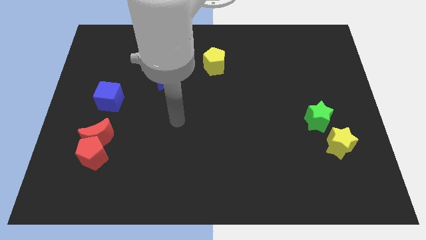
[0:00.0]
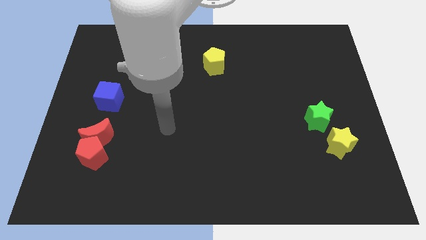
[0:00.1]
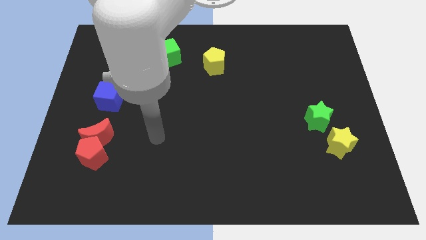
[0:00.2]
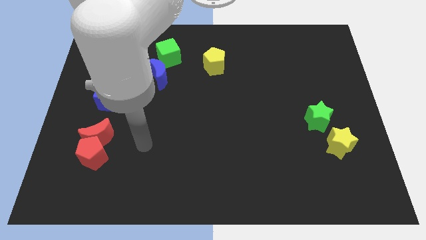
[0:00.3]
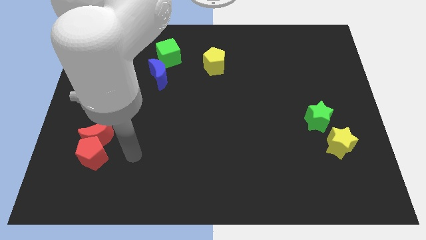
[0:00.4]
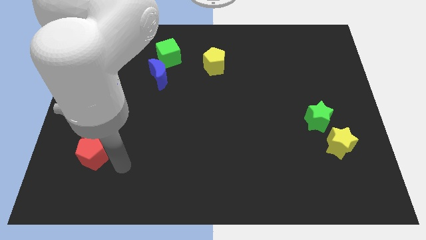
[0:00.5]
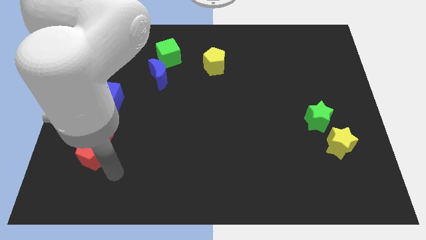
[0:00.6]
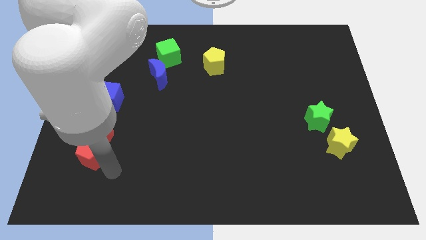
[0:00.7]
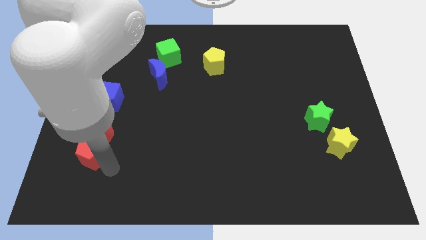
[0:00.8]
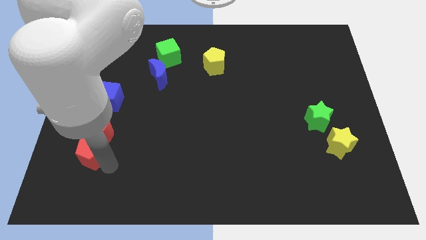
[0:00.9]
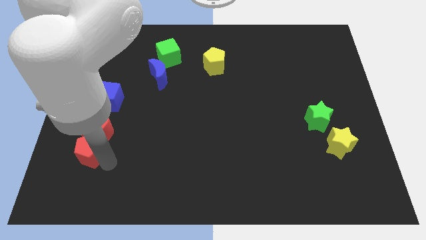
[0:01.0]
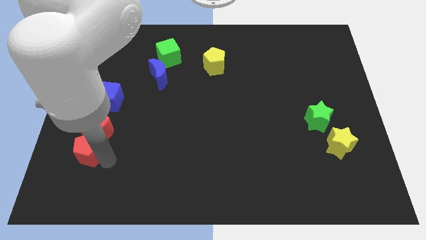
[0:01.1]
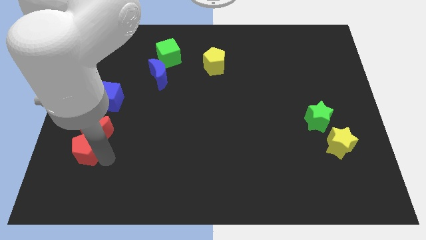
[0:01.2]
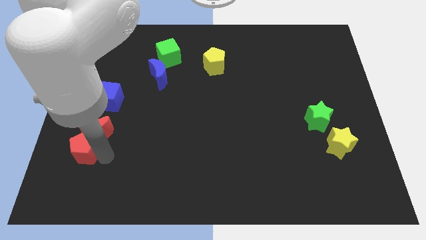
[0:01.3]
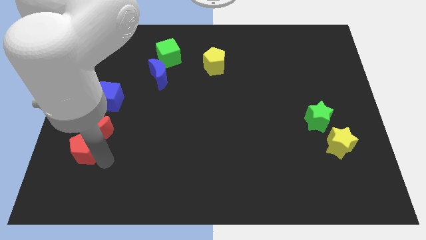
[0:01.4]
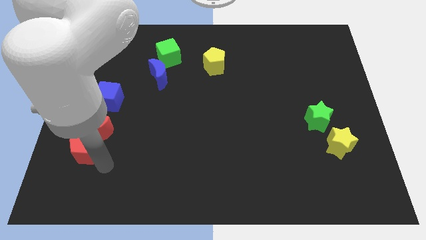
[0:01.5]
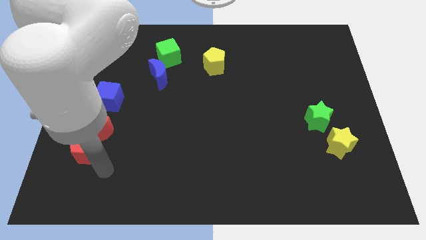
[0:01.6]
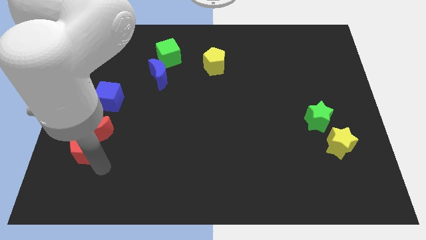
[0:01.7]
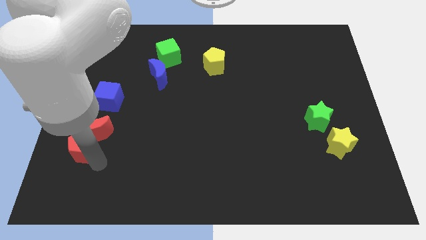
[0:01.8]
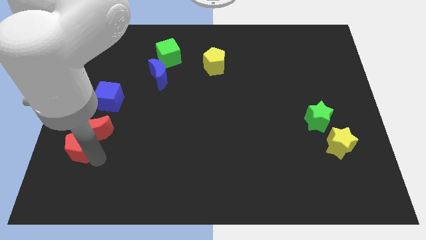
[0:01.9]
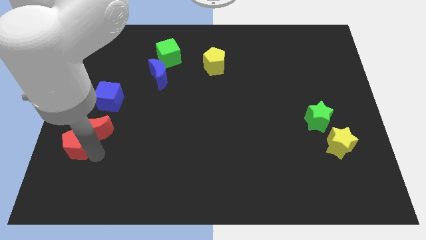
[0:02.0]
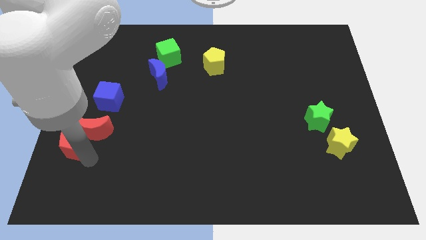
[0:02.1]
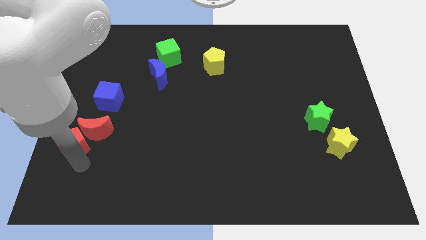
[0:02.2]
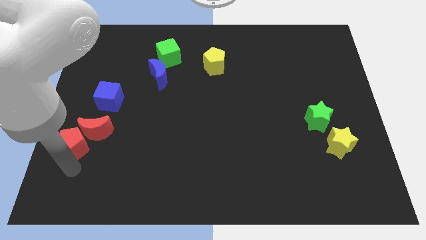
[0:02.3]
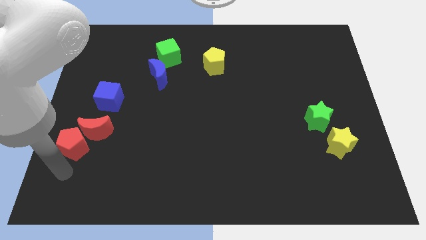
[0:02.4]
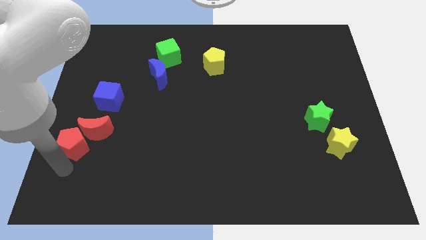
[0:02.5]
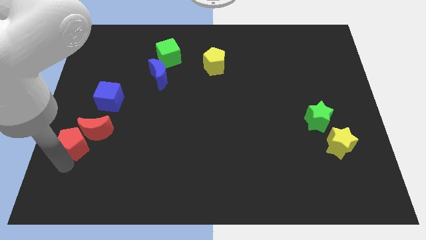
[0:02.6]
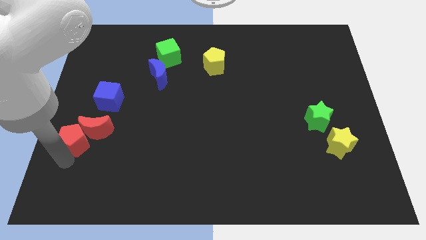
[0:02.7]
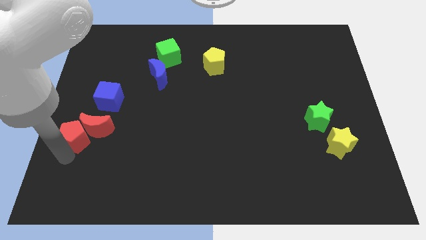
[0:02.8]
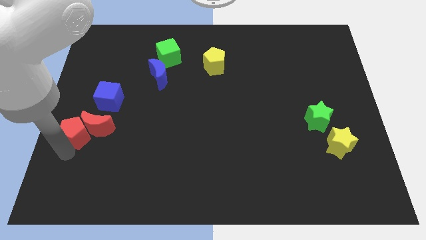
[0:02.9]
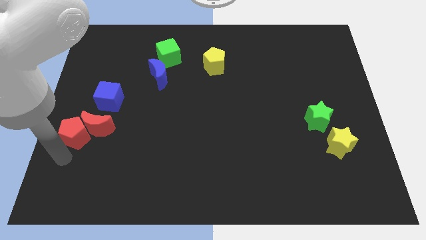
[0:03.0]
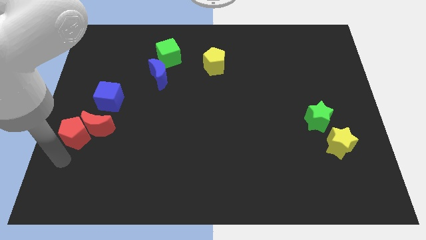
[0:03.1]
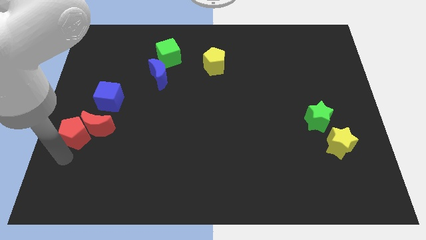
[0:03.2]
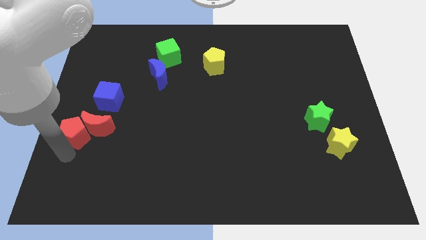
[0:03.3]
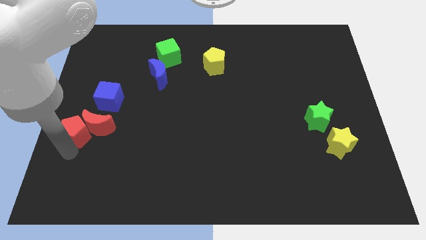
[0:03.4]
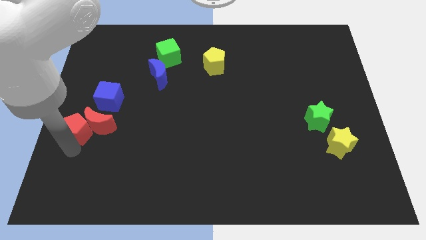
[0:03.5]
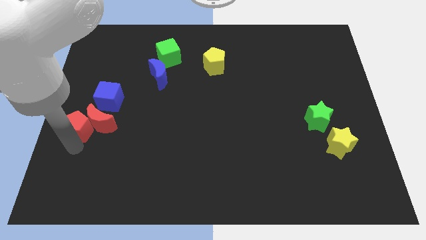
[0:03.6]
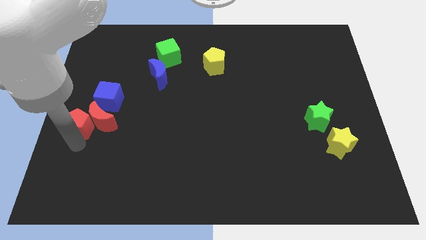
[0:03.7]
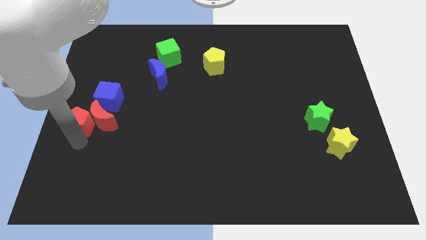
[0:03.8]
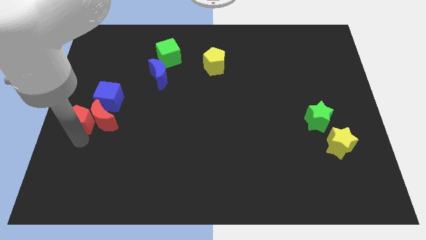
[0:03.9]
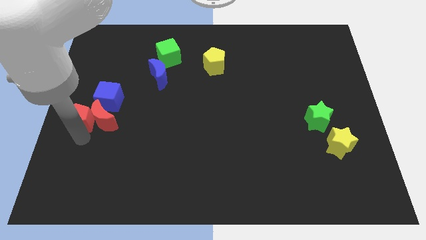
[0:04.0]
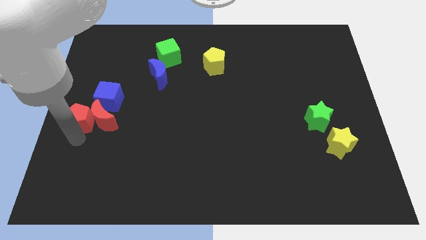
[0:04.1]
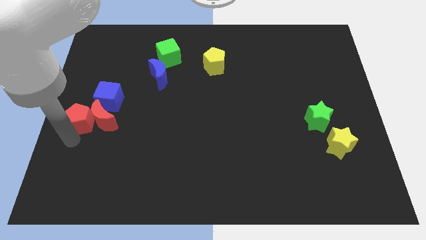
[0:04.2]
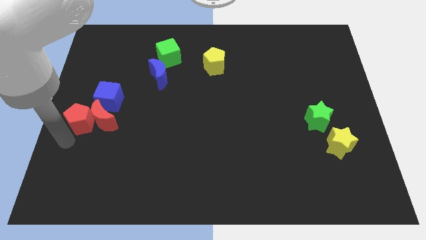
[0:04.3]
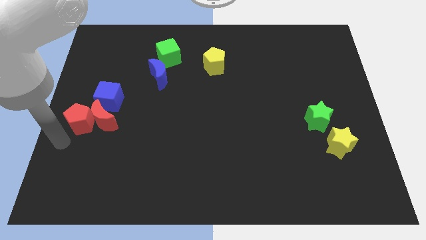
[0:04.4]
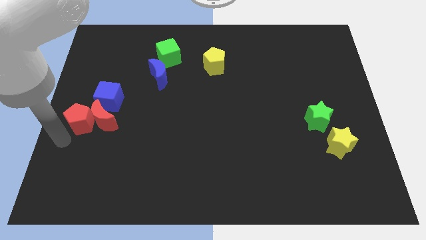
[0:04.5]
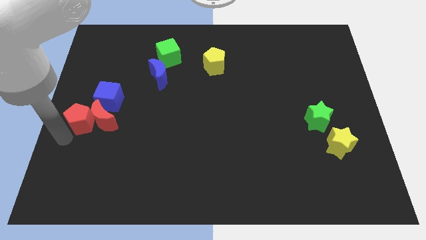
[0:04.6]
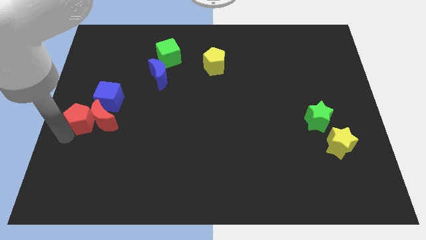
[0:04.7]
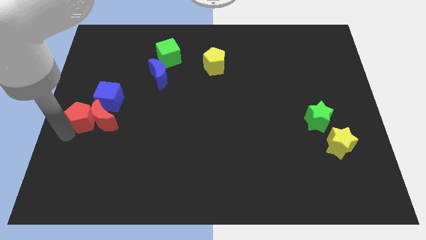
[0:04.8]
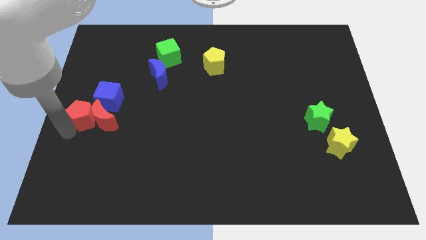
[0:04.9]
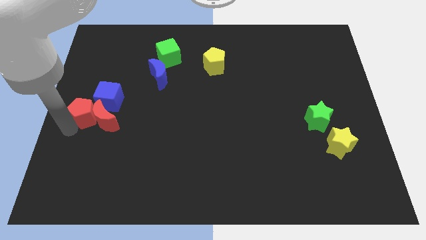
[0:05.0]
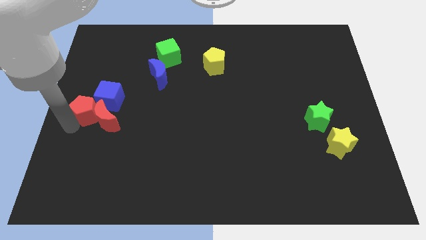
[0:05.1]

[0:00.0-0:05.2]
put the red pentagon towards the blue cube

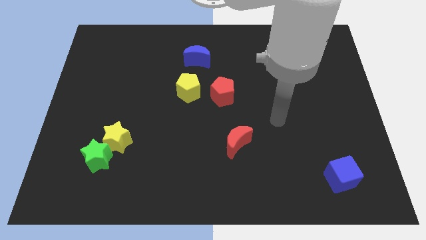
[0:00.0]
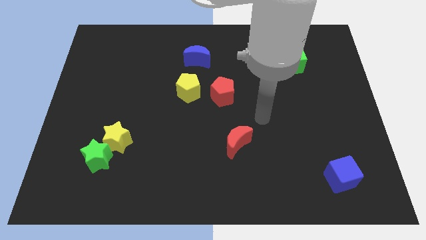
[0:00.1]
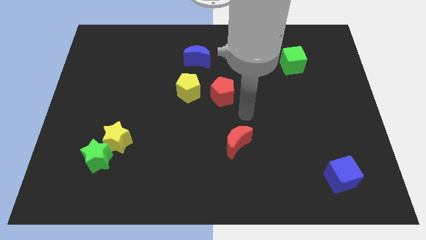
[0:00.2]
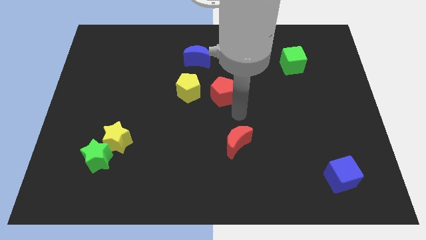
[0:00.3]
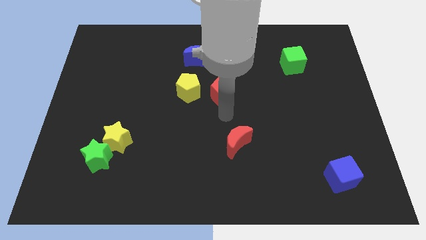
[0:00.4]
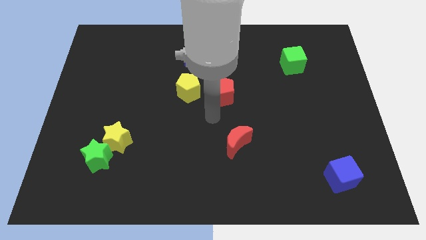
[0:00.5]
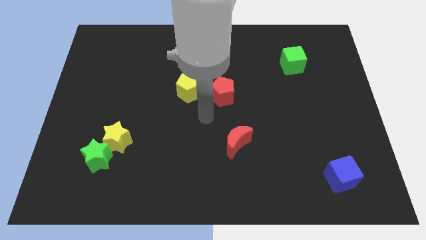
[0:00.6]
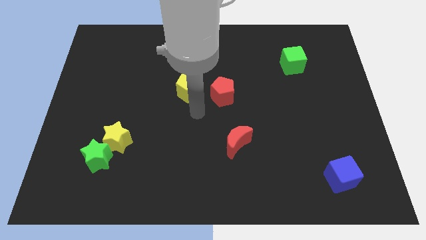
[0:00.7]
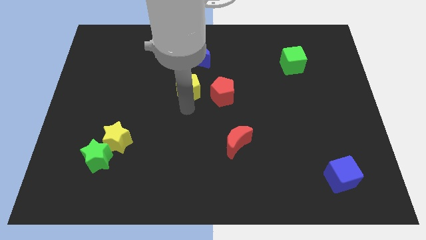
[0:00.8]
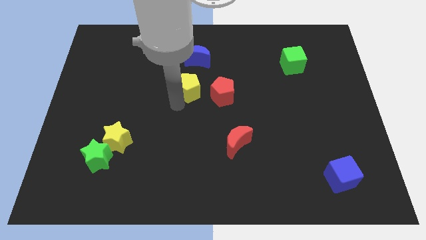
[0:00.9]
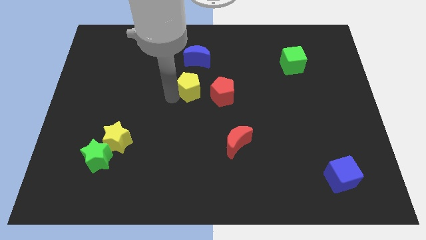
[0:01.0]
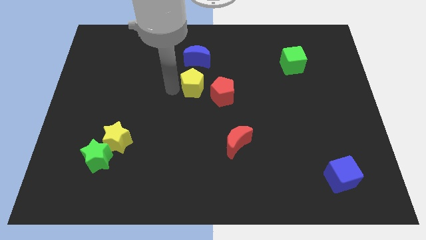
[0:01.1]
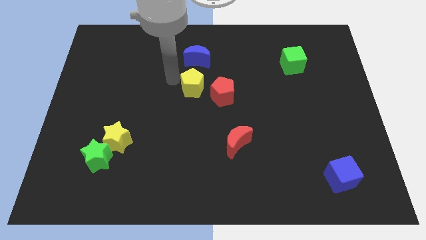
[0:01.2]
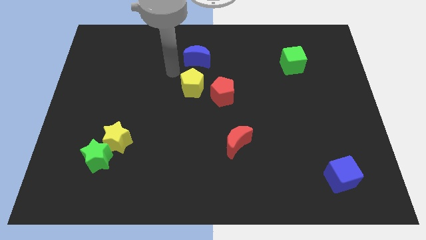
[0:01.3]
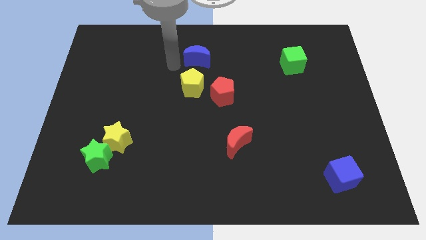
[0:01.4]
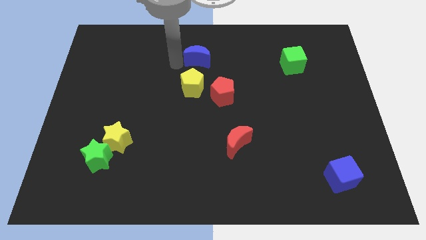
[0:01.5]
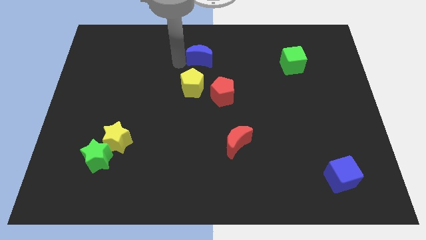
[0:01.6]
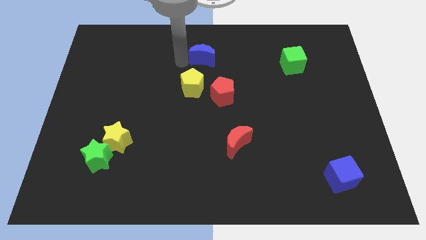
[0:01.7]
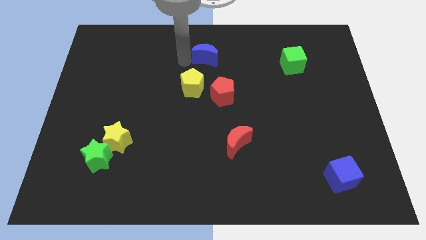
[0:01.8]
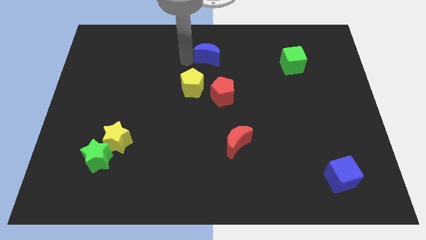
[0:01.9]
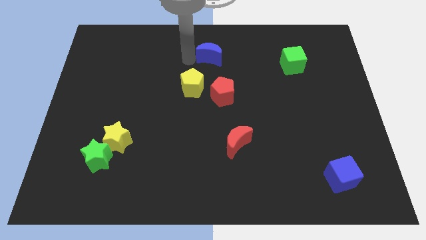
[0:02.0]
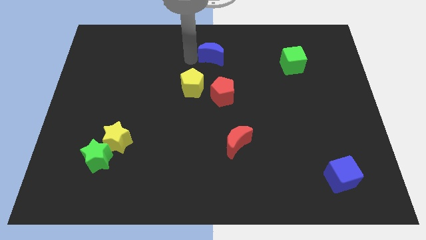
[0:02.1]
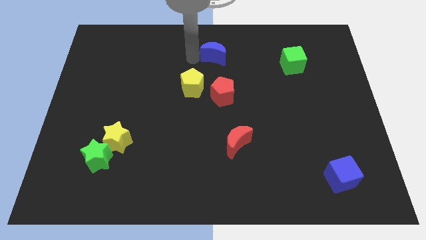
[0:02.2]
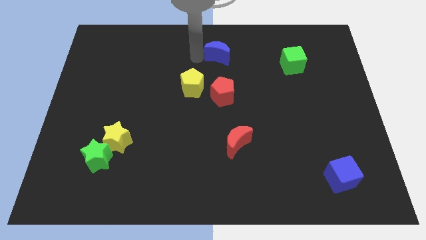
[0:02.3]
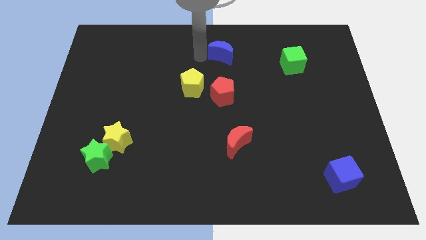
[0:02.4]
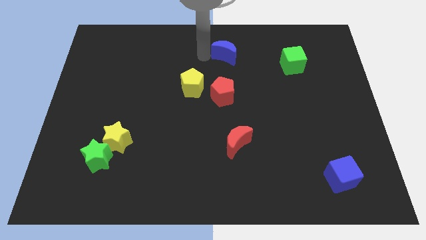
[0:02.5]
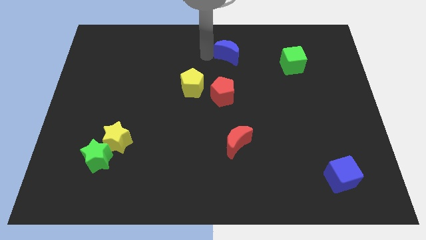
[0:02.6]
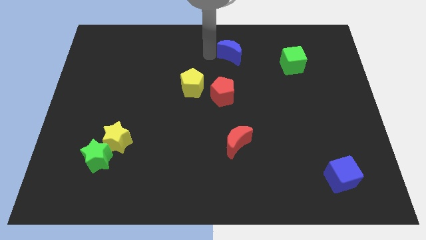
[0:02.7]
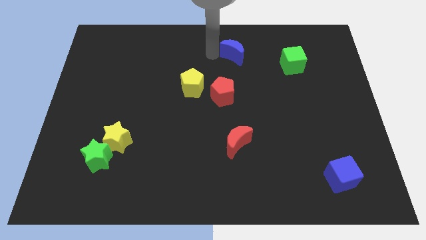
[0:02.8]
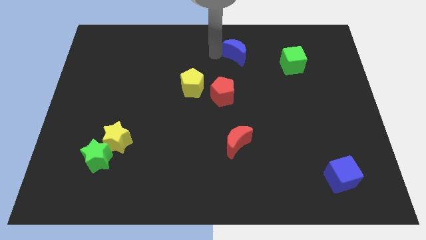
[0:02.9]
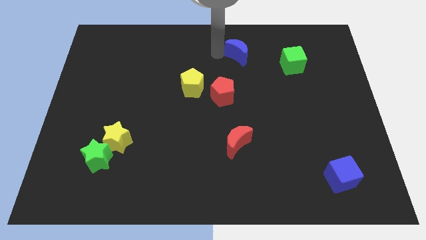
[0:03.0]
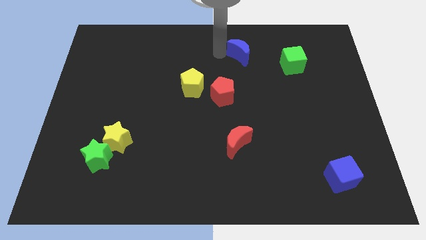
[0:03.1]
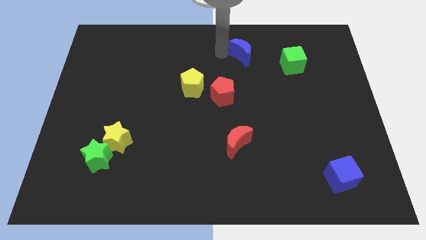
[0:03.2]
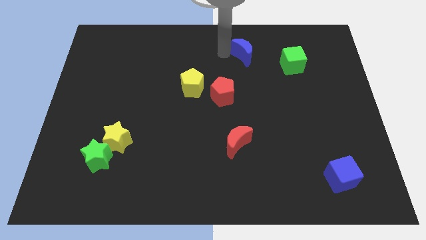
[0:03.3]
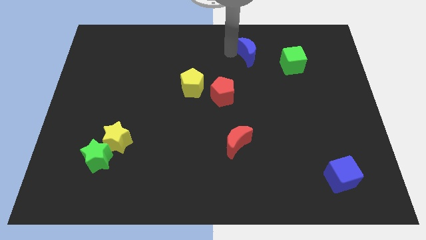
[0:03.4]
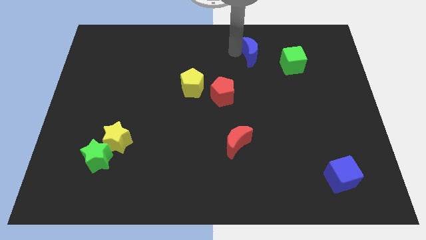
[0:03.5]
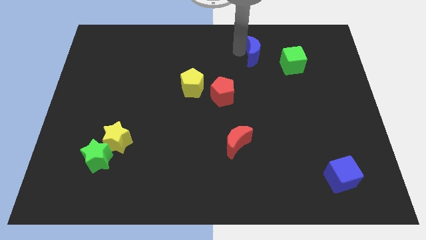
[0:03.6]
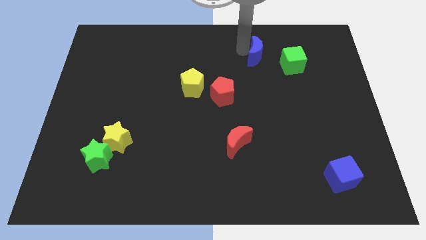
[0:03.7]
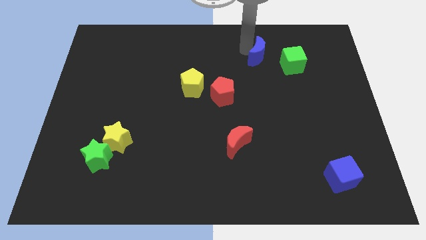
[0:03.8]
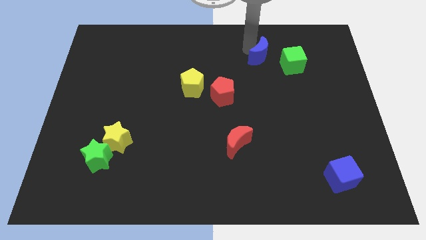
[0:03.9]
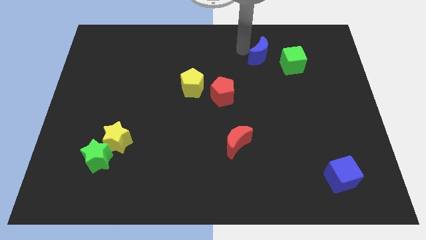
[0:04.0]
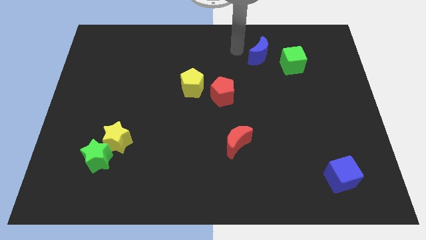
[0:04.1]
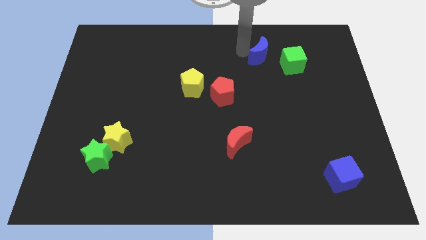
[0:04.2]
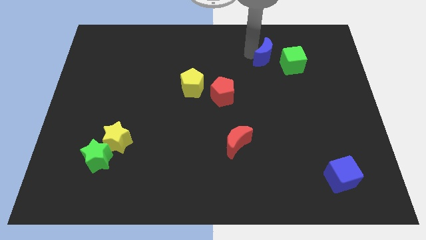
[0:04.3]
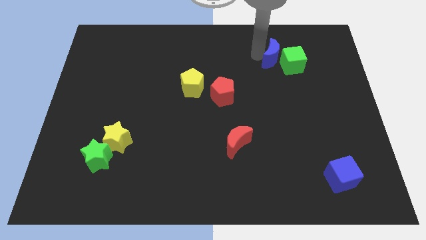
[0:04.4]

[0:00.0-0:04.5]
put the blue moon to the green cube
